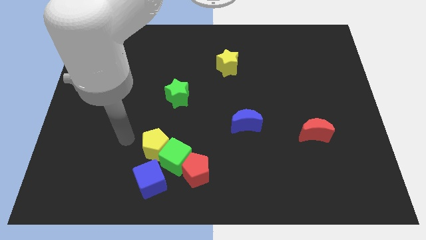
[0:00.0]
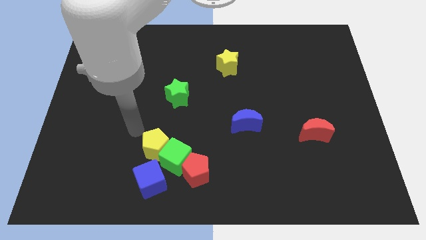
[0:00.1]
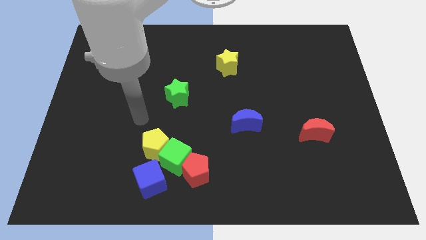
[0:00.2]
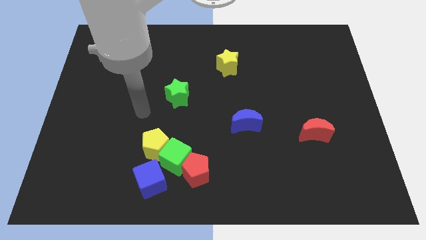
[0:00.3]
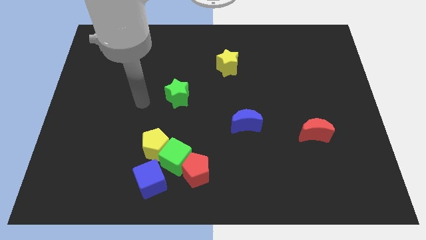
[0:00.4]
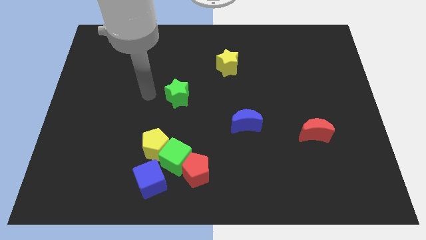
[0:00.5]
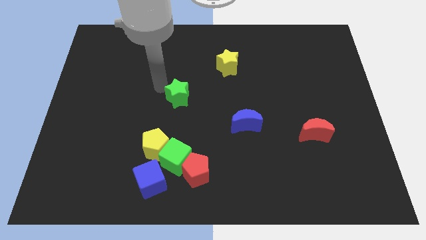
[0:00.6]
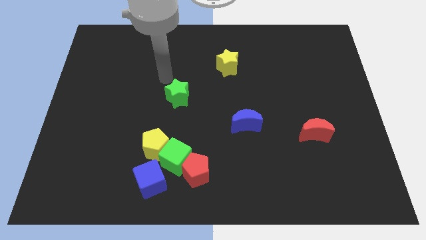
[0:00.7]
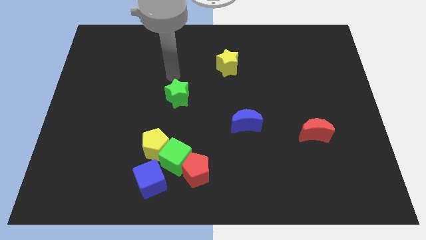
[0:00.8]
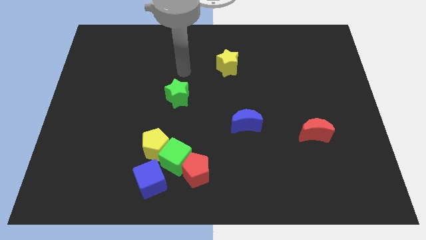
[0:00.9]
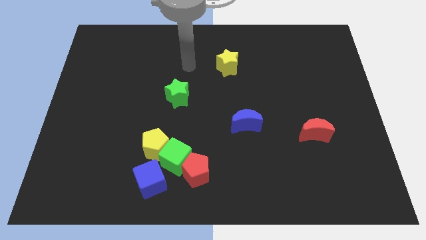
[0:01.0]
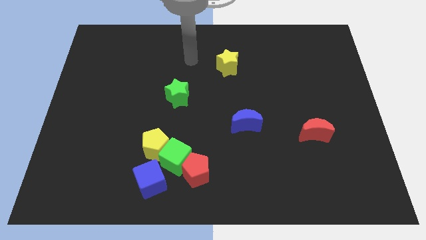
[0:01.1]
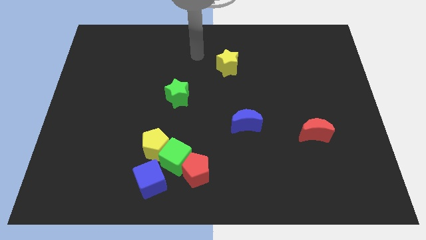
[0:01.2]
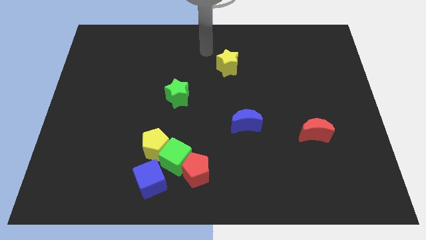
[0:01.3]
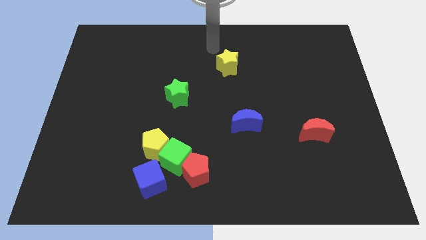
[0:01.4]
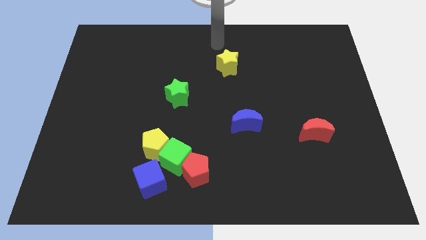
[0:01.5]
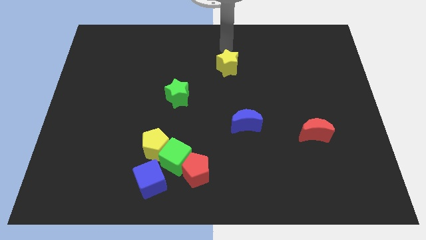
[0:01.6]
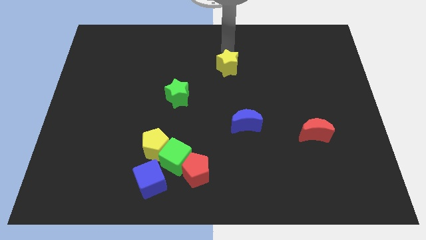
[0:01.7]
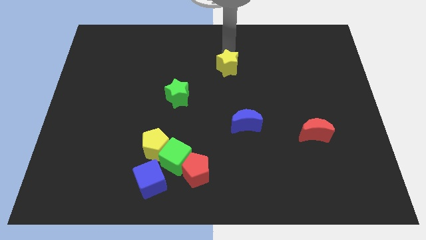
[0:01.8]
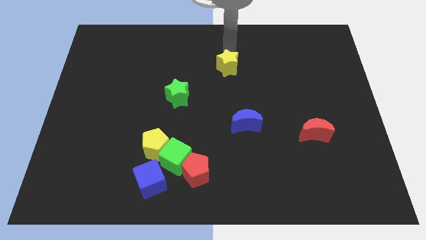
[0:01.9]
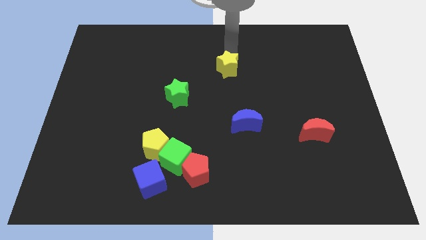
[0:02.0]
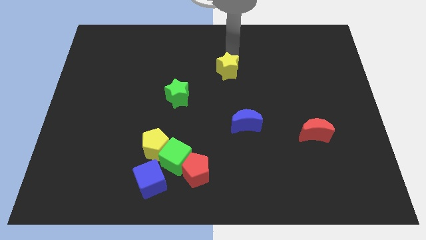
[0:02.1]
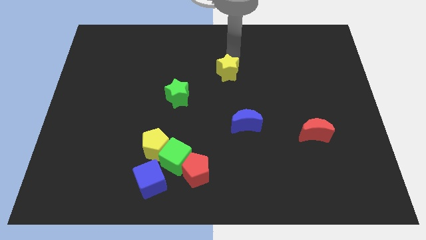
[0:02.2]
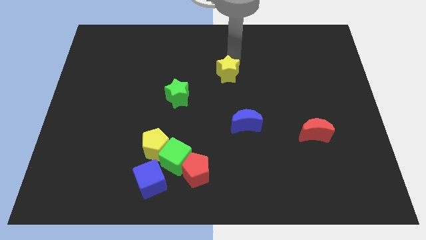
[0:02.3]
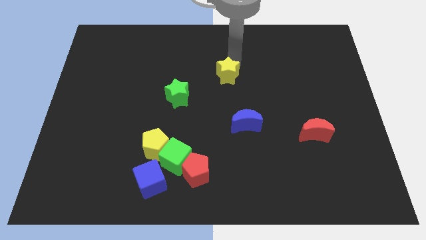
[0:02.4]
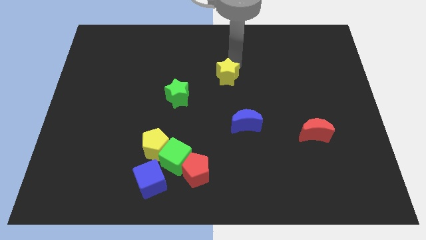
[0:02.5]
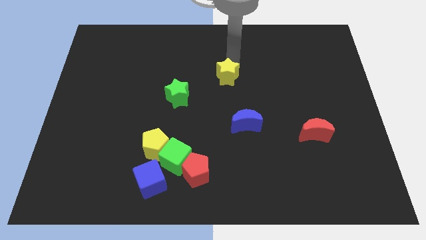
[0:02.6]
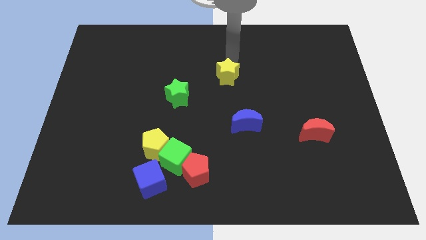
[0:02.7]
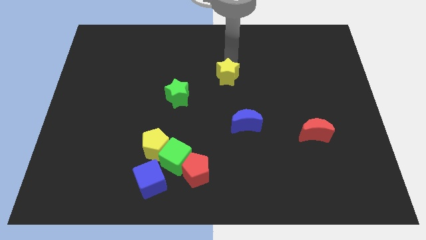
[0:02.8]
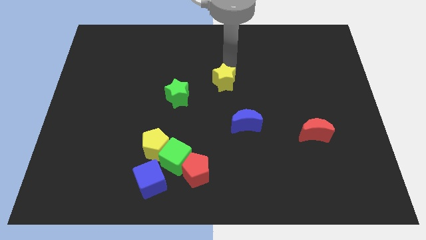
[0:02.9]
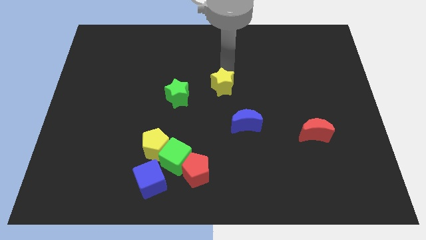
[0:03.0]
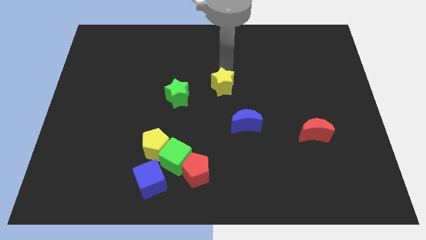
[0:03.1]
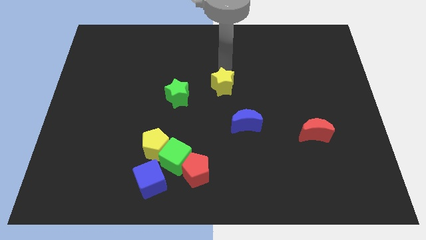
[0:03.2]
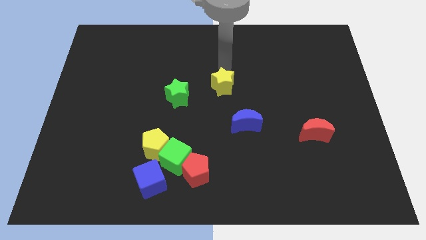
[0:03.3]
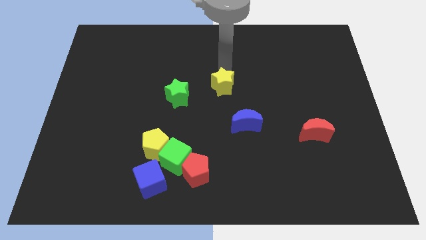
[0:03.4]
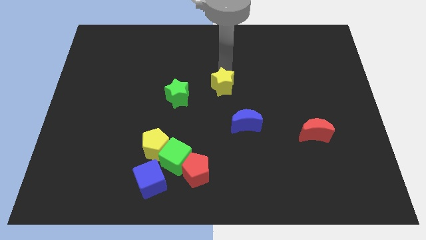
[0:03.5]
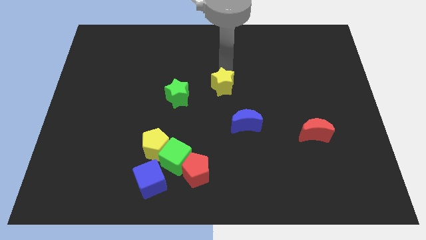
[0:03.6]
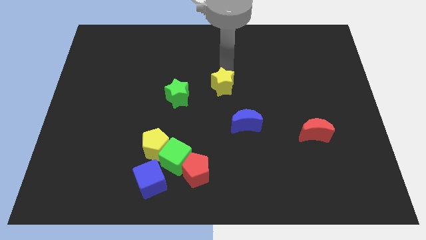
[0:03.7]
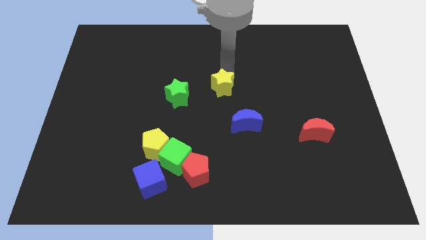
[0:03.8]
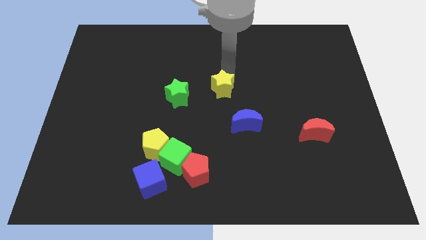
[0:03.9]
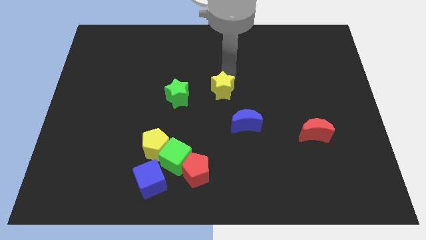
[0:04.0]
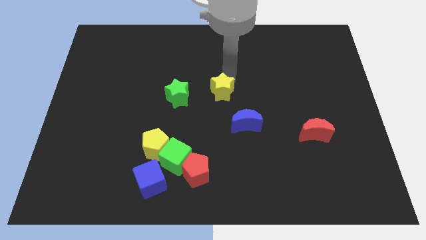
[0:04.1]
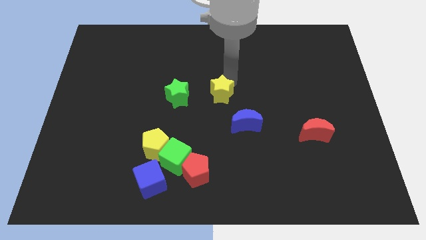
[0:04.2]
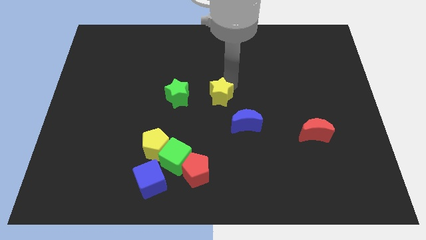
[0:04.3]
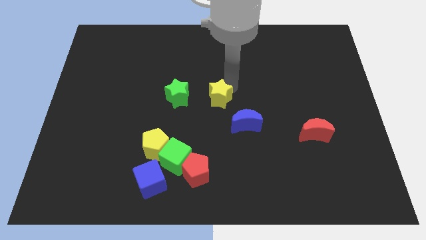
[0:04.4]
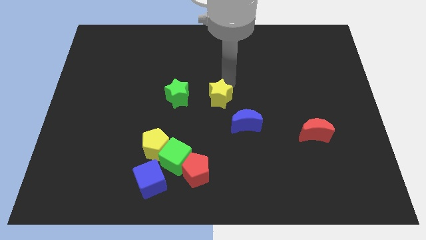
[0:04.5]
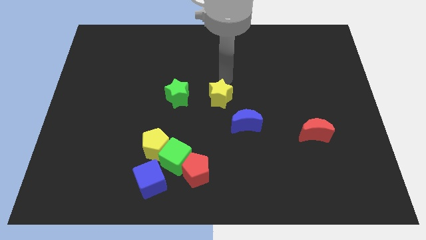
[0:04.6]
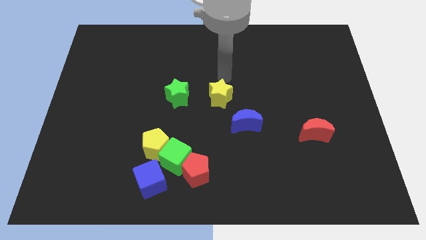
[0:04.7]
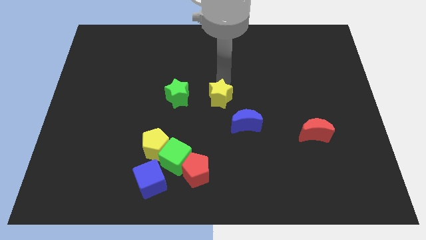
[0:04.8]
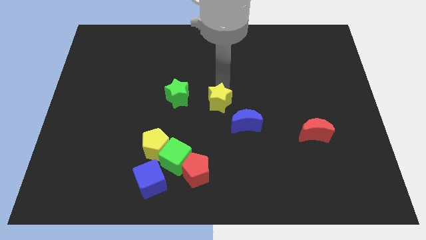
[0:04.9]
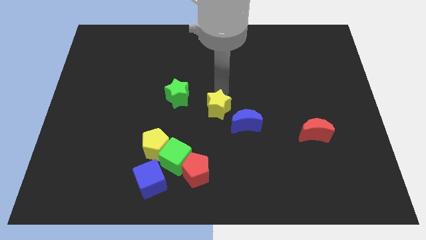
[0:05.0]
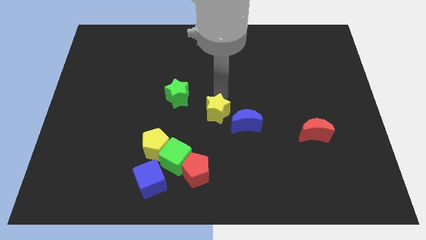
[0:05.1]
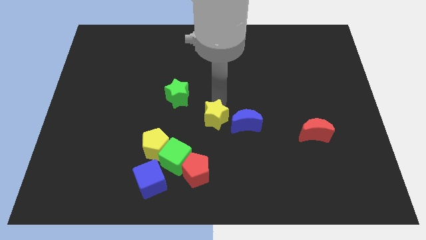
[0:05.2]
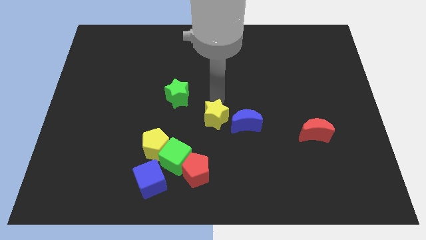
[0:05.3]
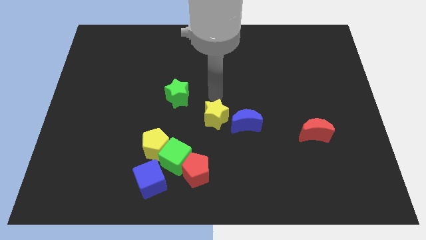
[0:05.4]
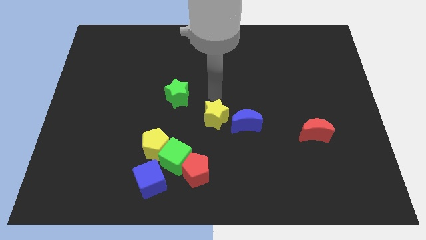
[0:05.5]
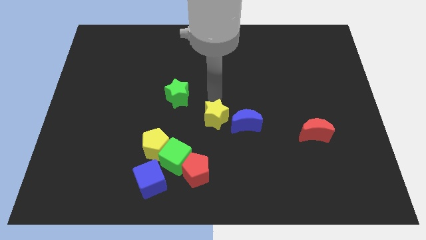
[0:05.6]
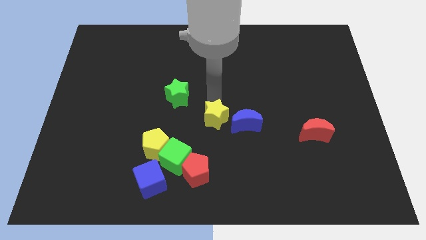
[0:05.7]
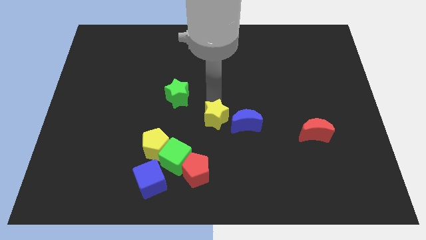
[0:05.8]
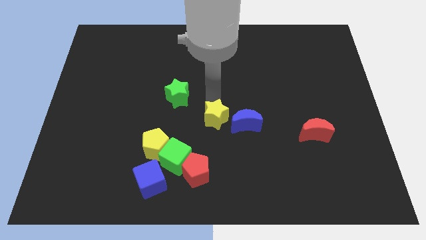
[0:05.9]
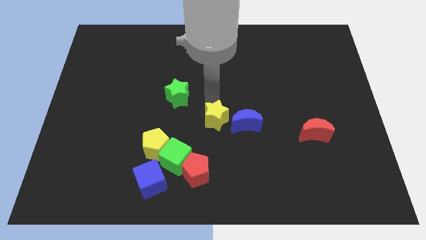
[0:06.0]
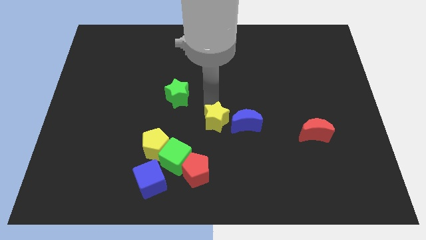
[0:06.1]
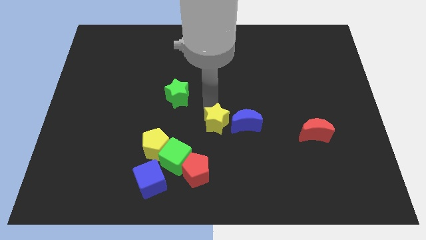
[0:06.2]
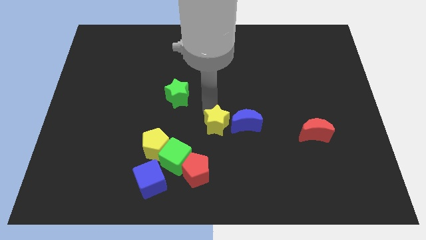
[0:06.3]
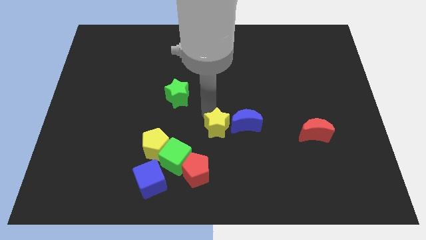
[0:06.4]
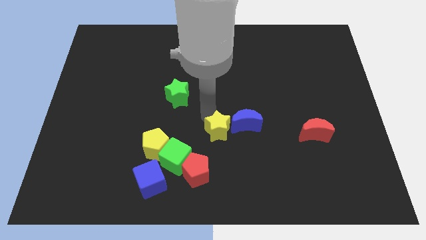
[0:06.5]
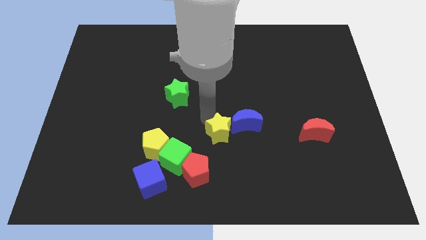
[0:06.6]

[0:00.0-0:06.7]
slide the yellow star down

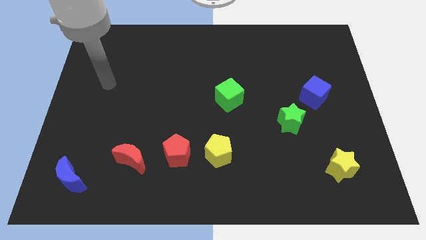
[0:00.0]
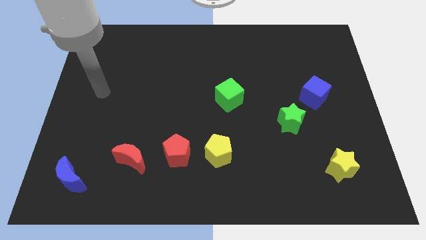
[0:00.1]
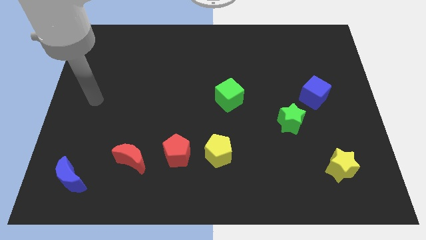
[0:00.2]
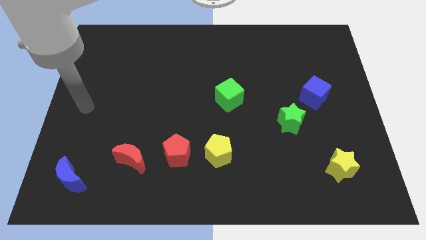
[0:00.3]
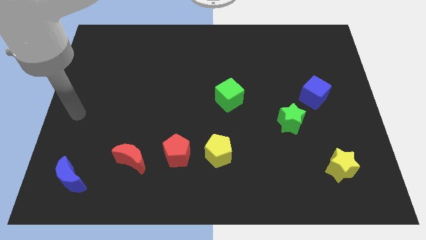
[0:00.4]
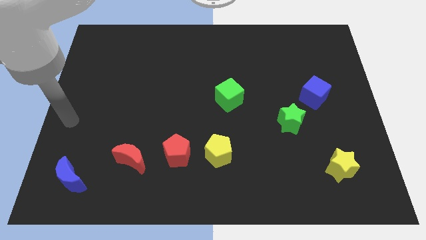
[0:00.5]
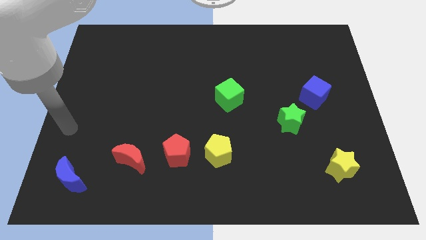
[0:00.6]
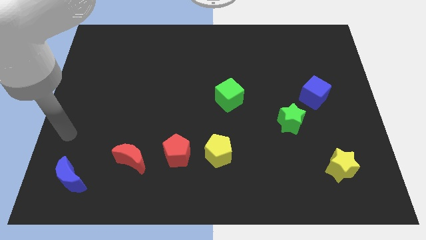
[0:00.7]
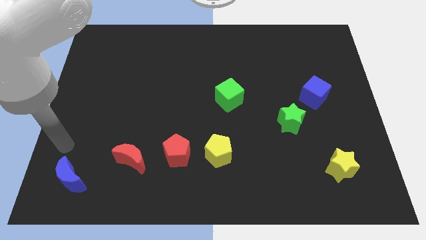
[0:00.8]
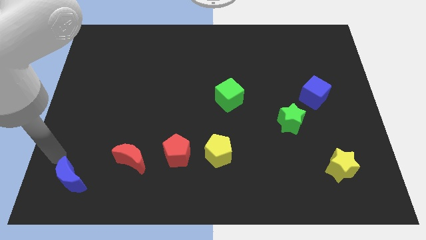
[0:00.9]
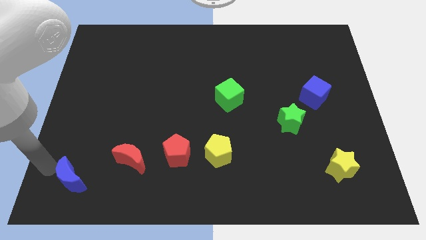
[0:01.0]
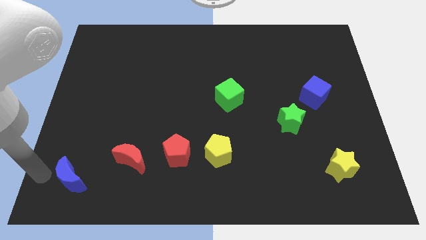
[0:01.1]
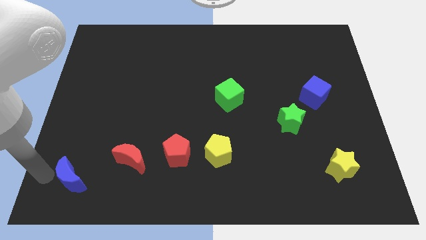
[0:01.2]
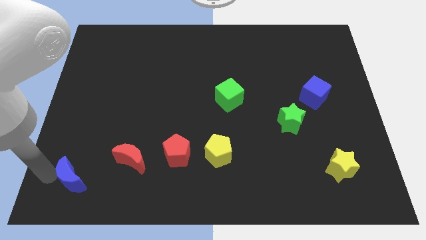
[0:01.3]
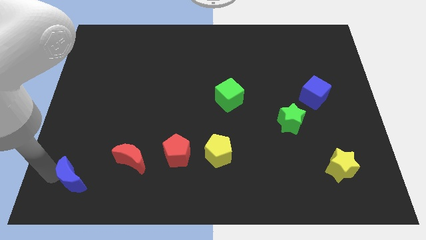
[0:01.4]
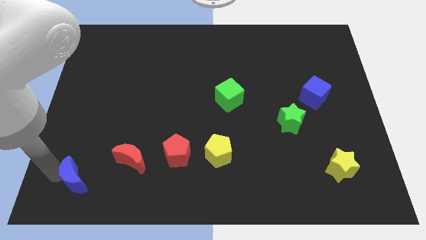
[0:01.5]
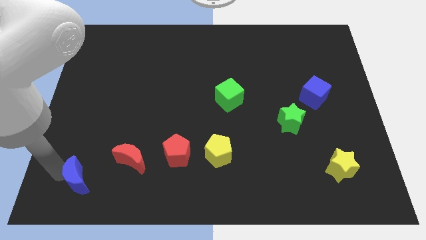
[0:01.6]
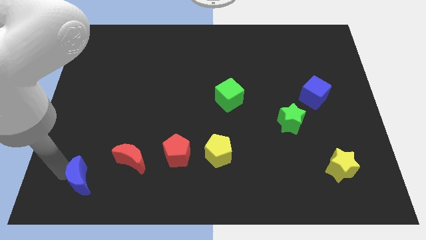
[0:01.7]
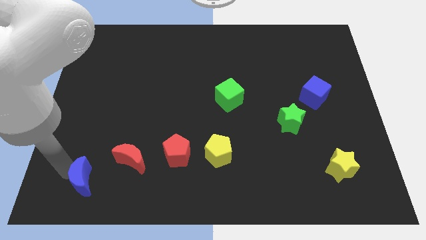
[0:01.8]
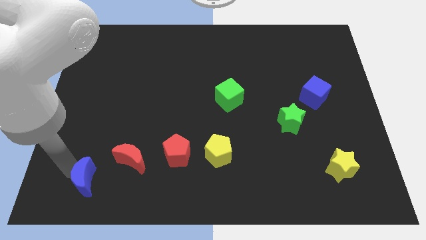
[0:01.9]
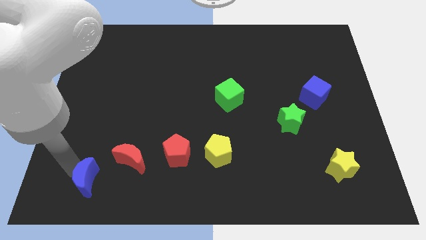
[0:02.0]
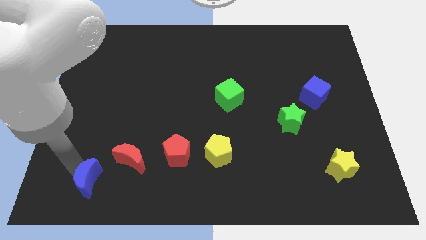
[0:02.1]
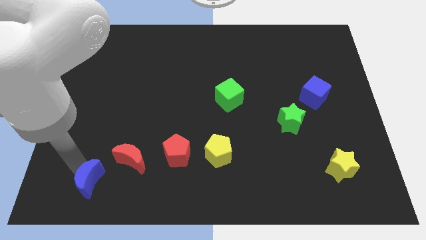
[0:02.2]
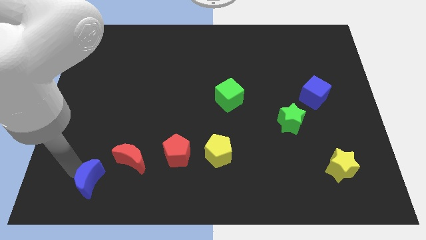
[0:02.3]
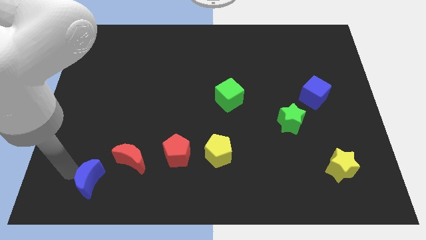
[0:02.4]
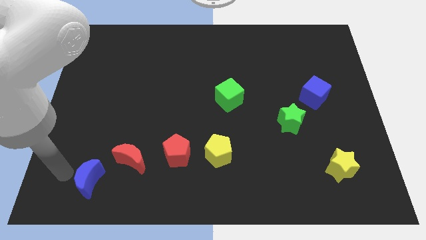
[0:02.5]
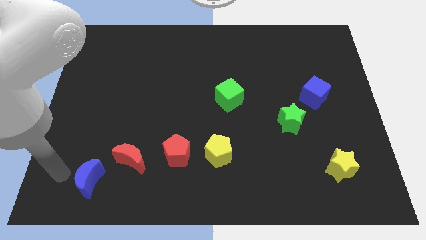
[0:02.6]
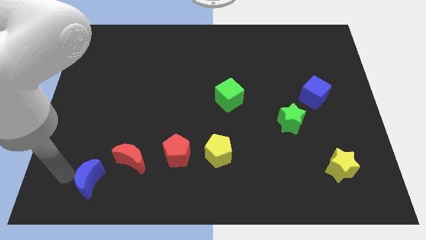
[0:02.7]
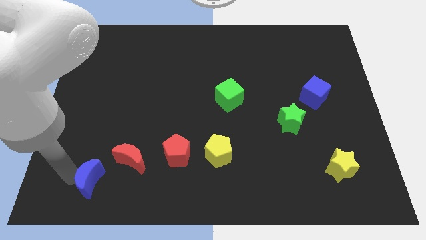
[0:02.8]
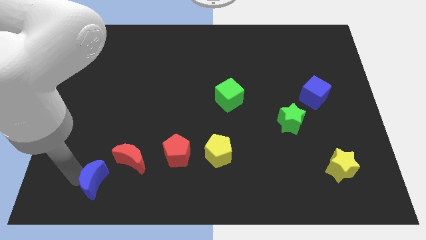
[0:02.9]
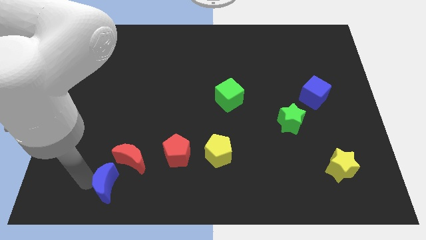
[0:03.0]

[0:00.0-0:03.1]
move the blue moon a bit right
